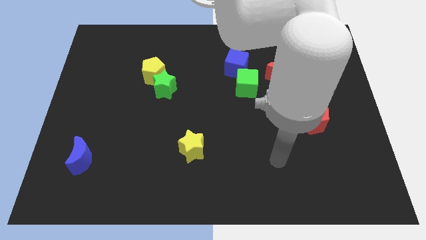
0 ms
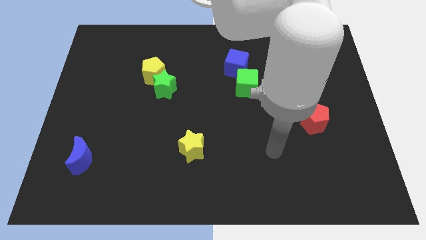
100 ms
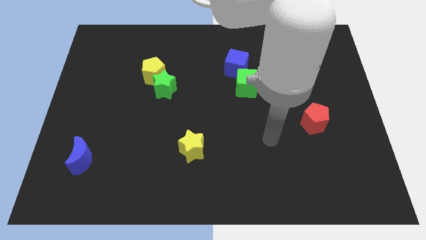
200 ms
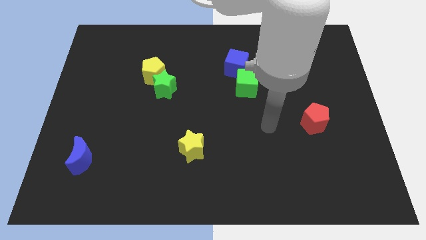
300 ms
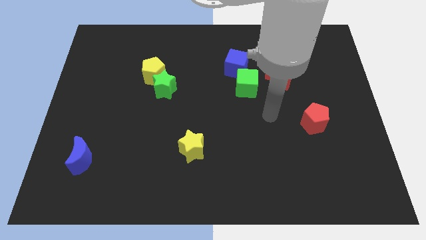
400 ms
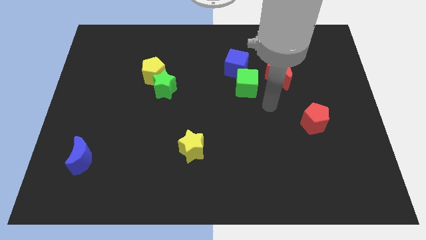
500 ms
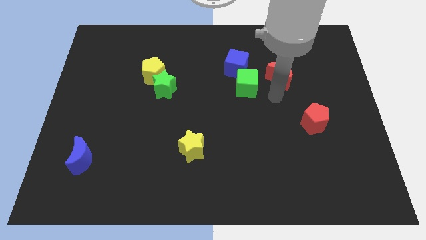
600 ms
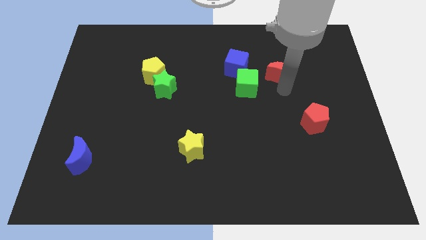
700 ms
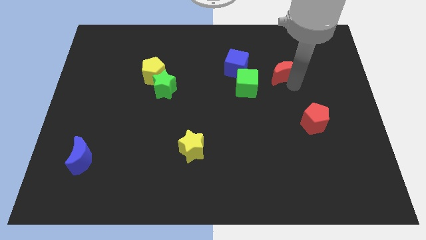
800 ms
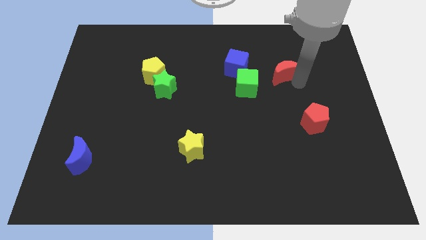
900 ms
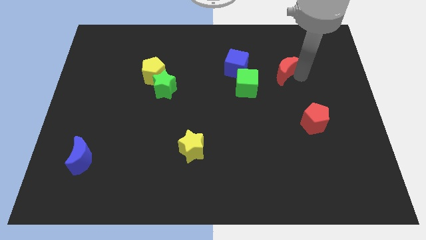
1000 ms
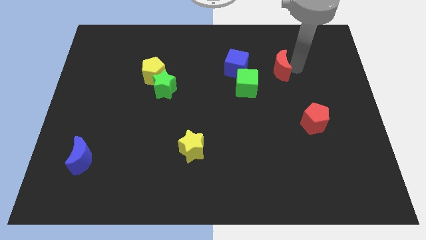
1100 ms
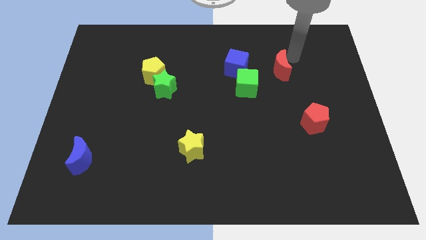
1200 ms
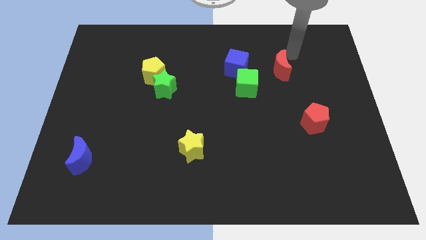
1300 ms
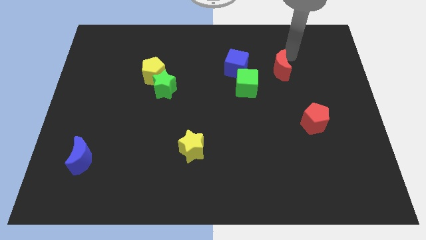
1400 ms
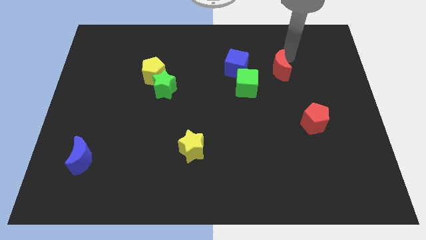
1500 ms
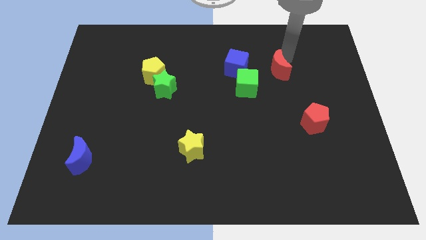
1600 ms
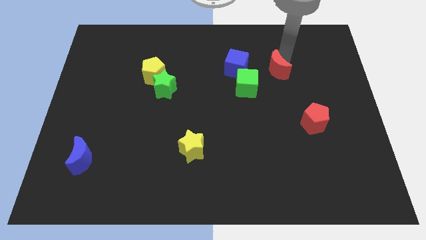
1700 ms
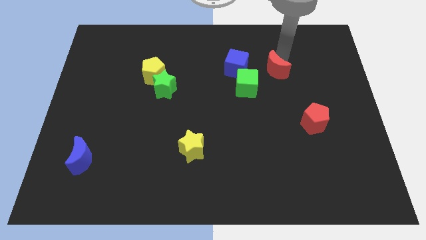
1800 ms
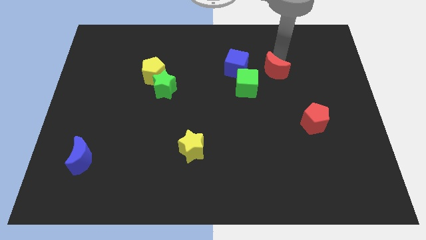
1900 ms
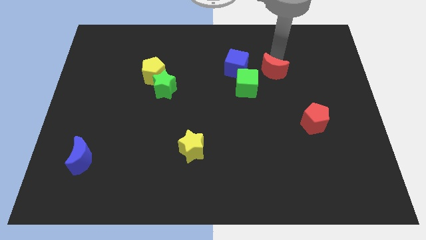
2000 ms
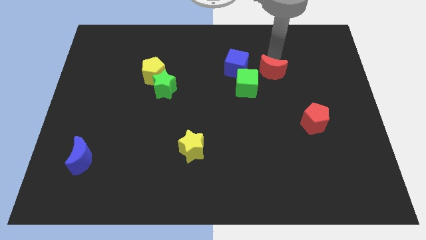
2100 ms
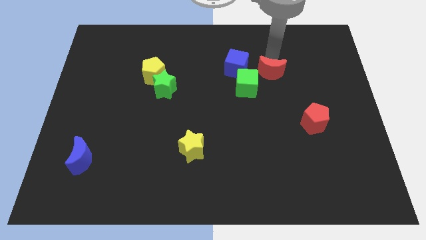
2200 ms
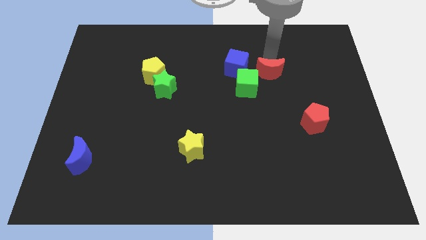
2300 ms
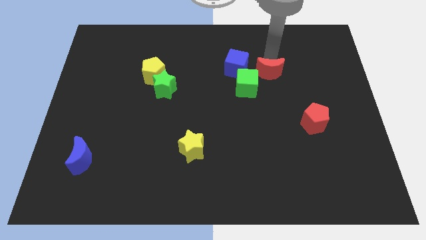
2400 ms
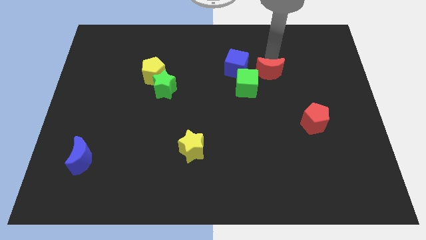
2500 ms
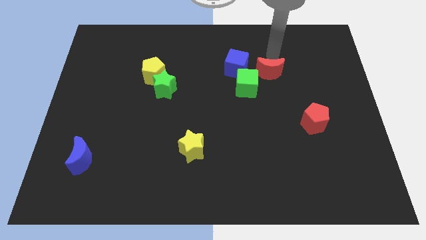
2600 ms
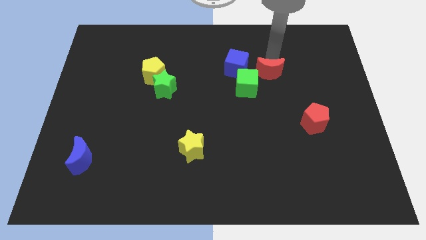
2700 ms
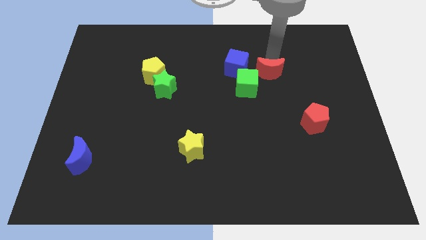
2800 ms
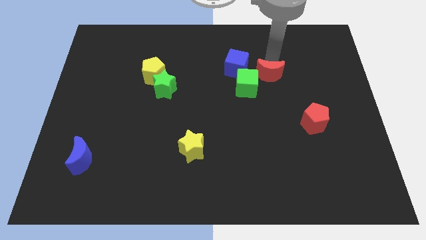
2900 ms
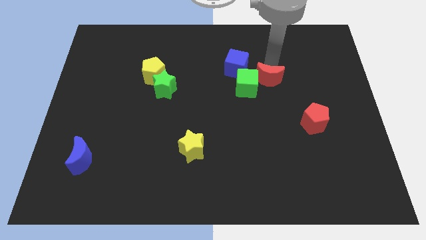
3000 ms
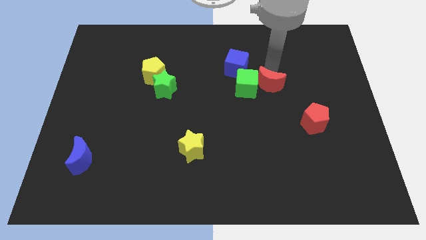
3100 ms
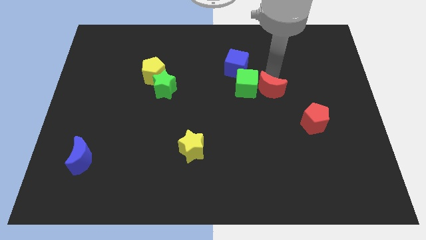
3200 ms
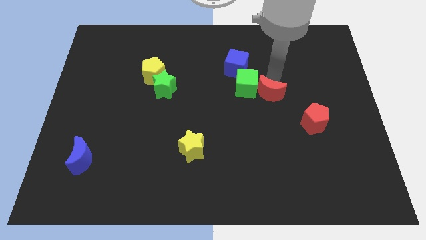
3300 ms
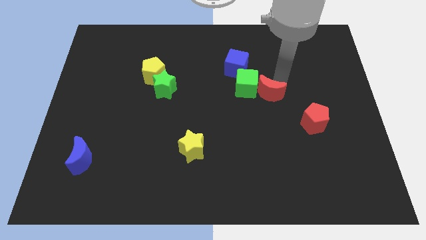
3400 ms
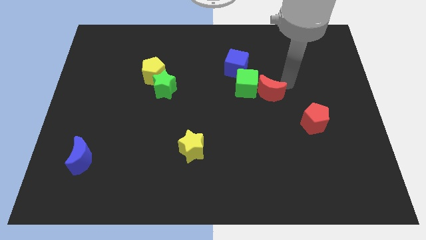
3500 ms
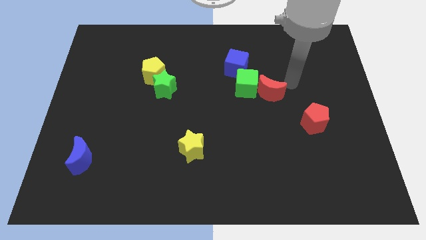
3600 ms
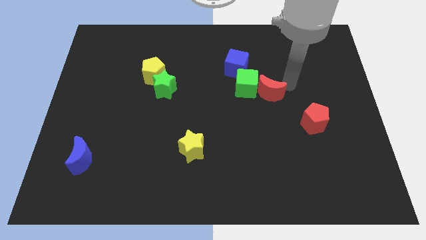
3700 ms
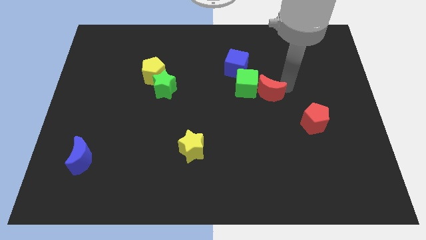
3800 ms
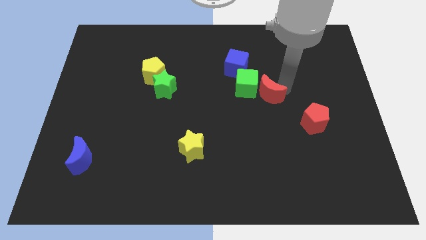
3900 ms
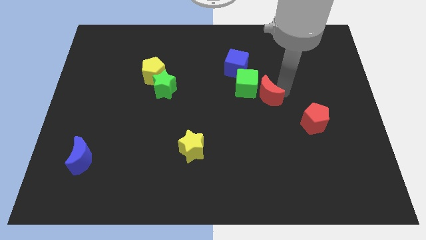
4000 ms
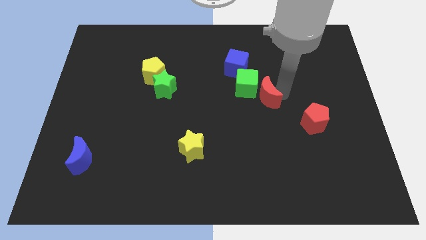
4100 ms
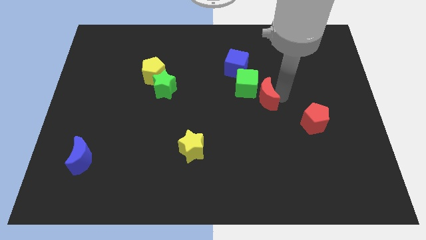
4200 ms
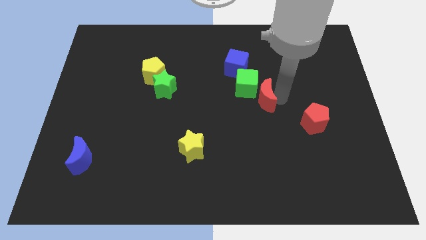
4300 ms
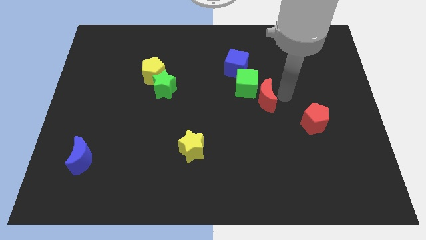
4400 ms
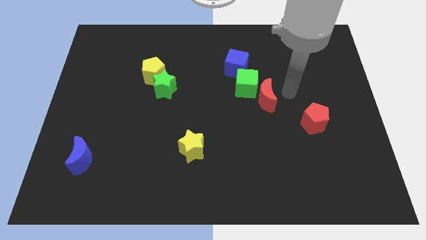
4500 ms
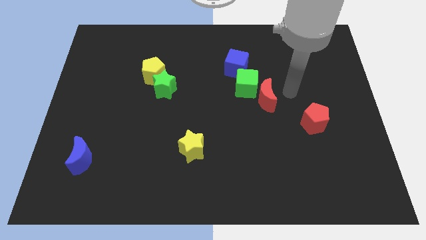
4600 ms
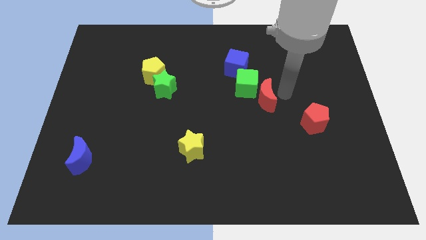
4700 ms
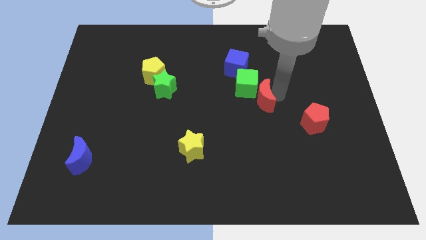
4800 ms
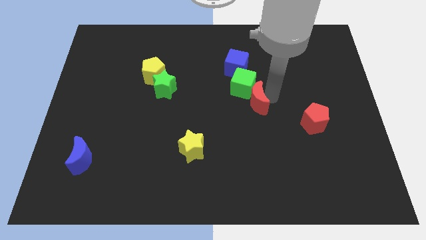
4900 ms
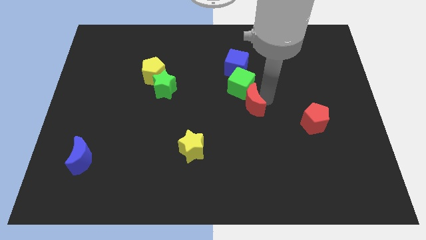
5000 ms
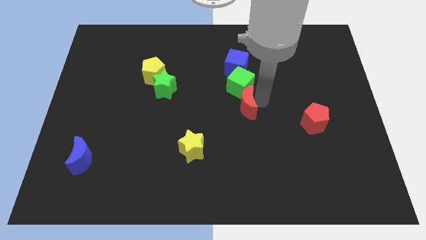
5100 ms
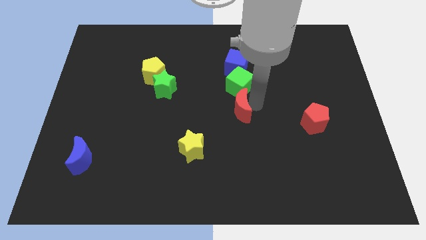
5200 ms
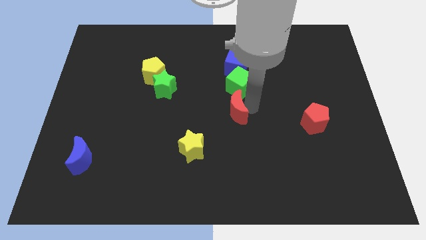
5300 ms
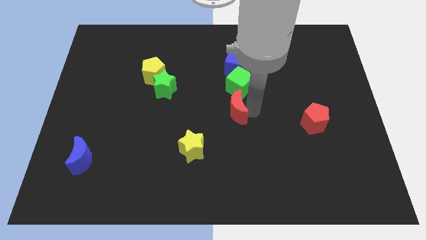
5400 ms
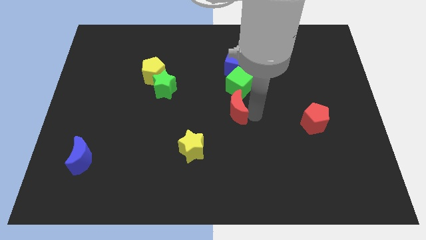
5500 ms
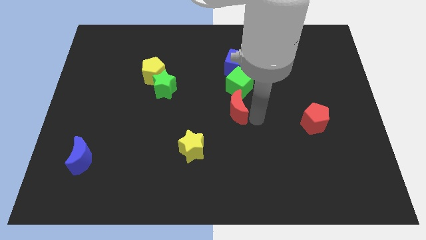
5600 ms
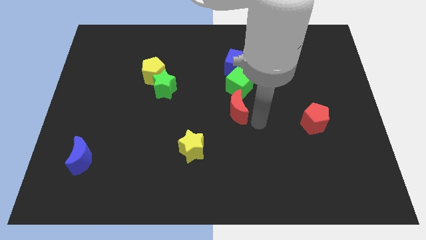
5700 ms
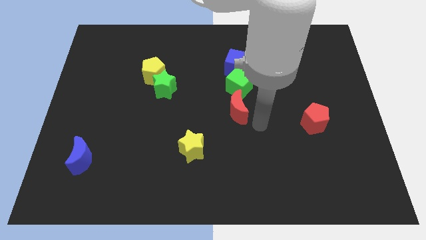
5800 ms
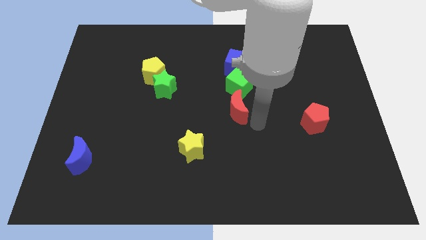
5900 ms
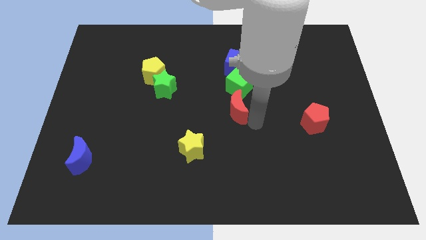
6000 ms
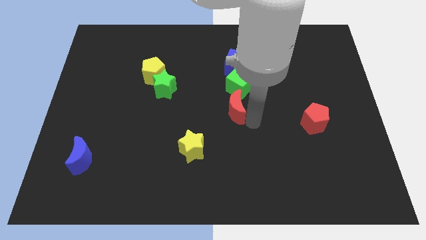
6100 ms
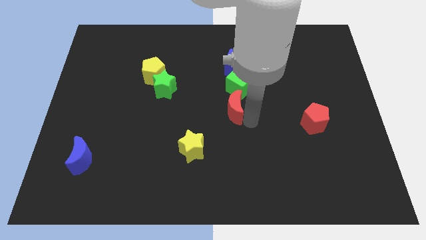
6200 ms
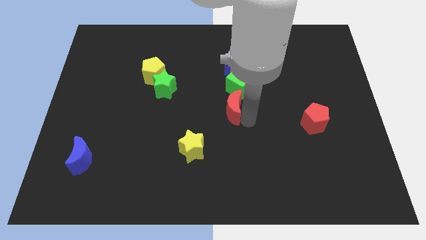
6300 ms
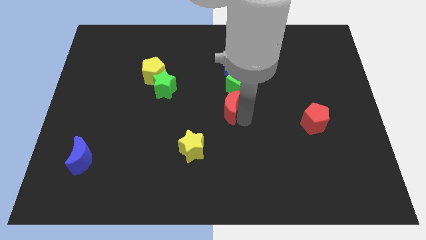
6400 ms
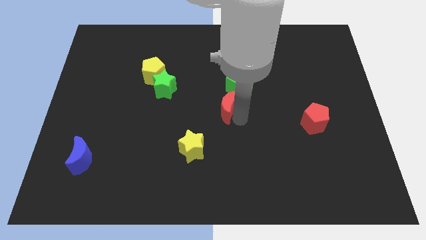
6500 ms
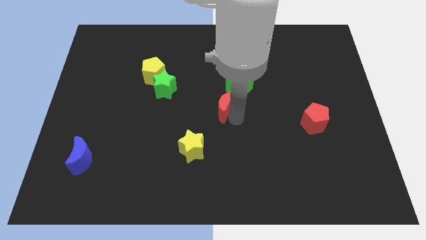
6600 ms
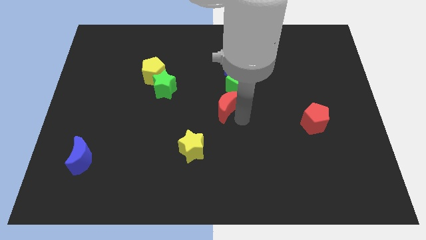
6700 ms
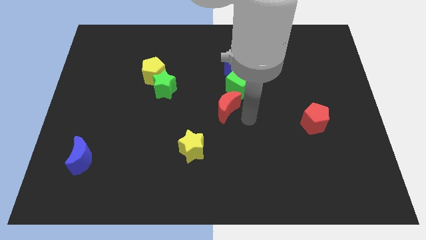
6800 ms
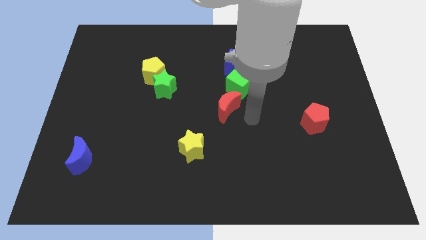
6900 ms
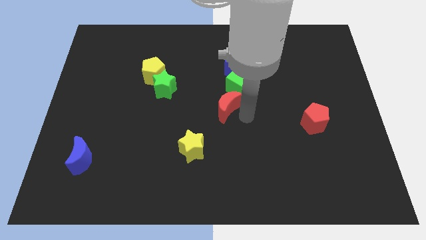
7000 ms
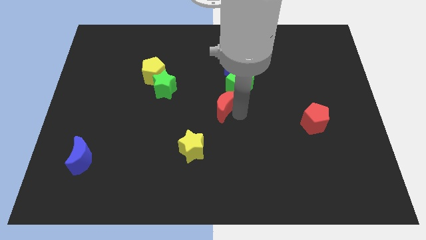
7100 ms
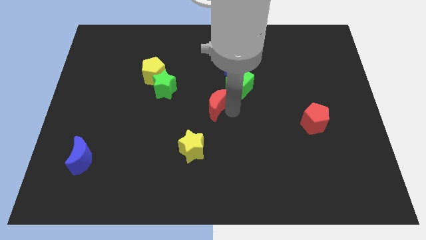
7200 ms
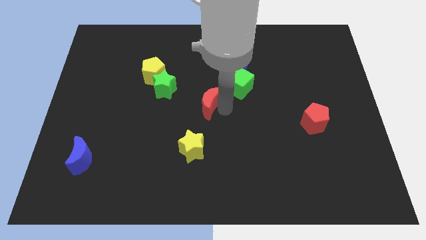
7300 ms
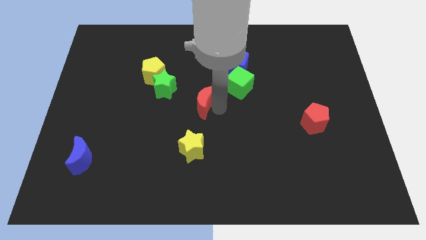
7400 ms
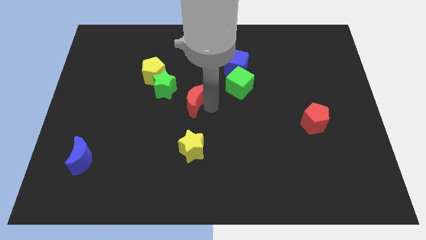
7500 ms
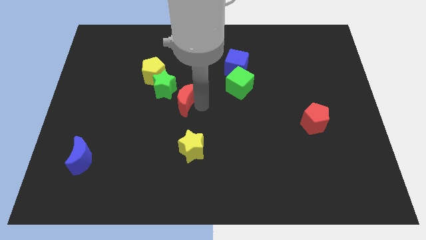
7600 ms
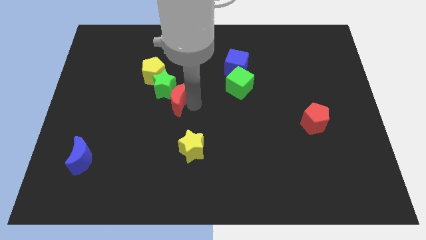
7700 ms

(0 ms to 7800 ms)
put the red moon to the green star
